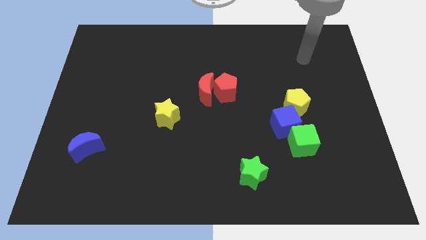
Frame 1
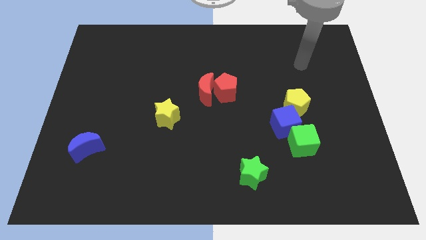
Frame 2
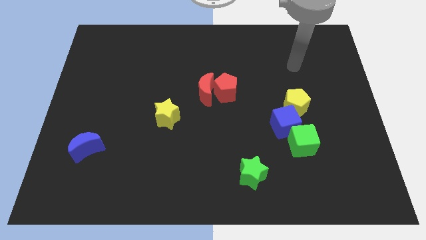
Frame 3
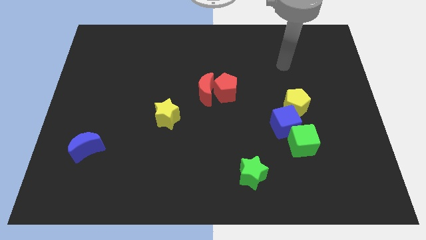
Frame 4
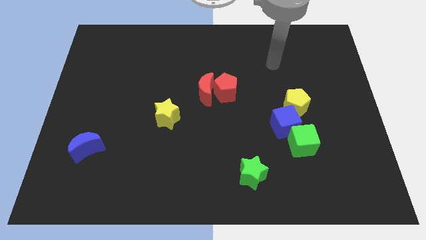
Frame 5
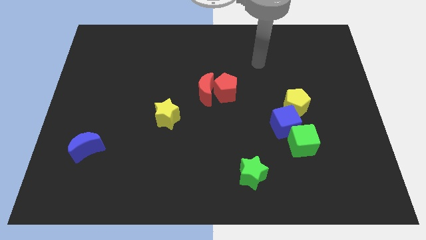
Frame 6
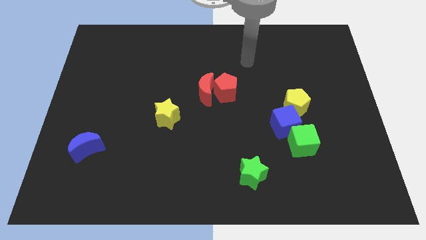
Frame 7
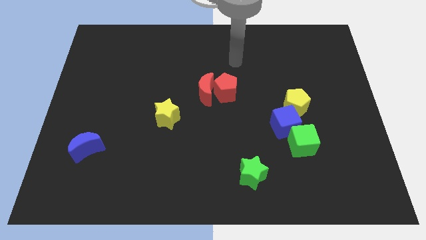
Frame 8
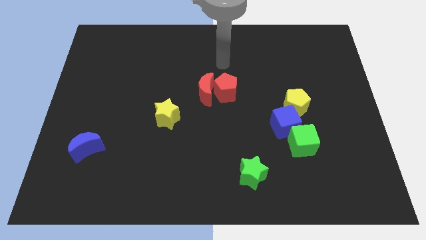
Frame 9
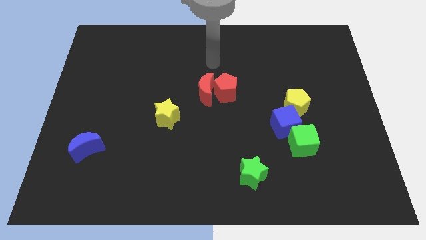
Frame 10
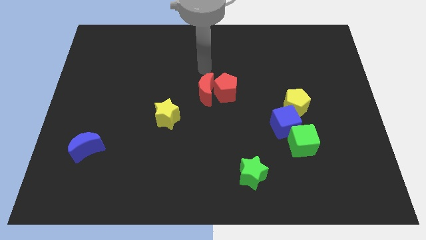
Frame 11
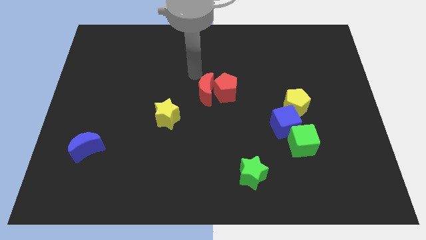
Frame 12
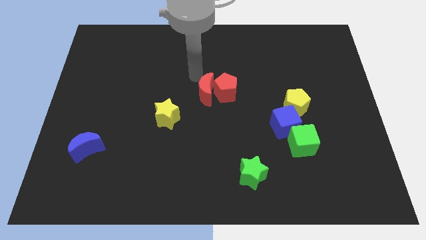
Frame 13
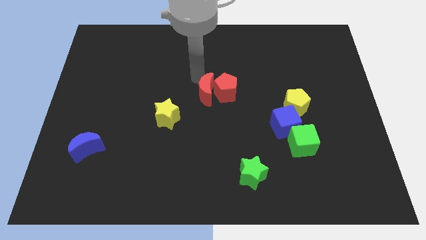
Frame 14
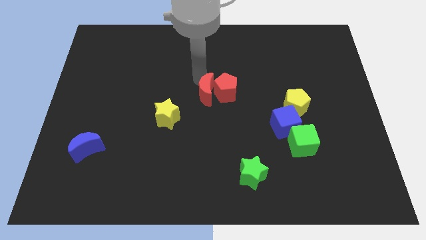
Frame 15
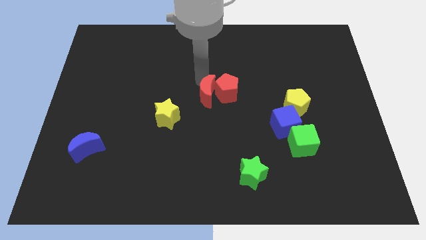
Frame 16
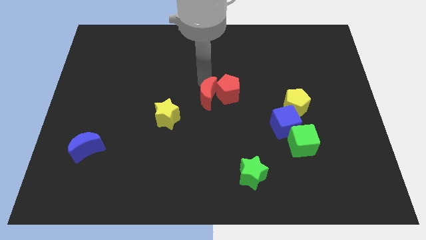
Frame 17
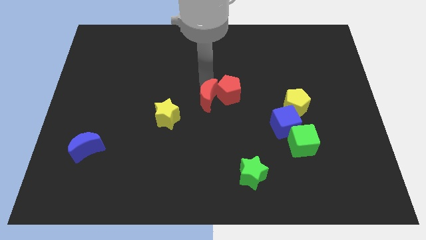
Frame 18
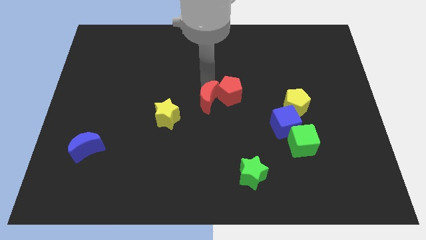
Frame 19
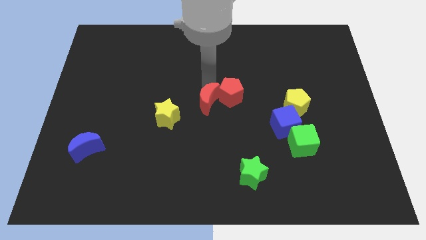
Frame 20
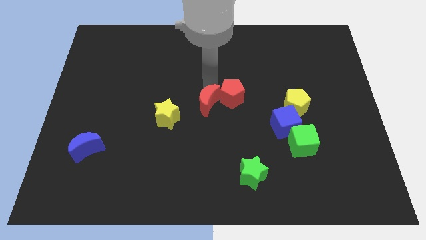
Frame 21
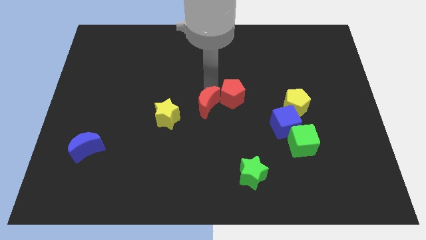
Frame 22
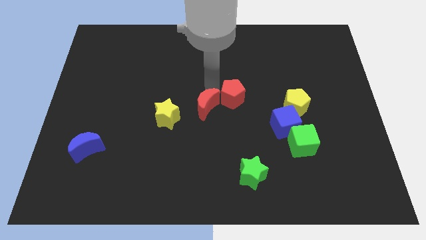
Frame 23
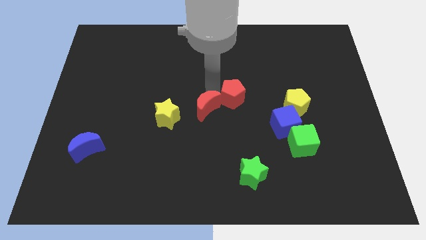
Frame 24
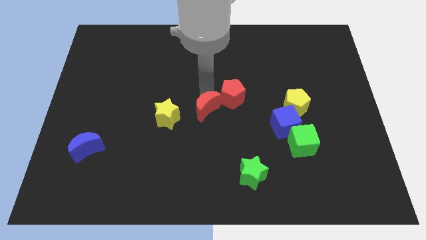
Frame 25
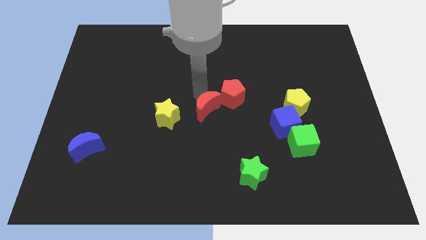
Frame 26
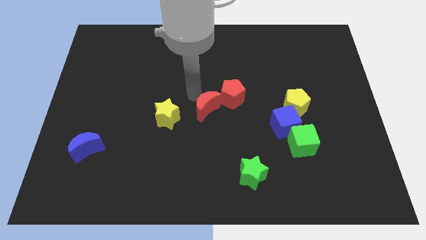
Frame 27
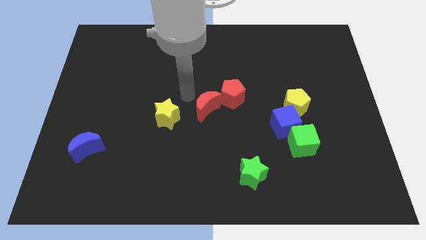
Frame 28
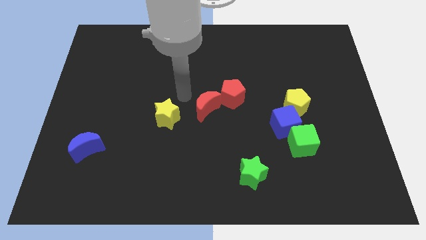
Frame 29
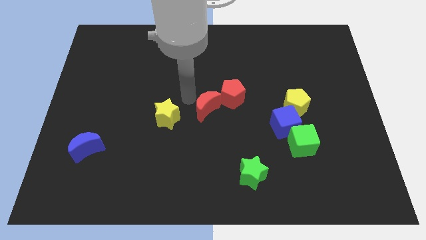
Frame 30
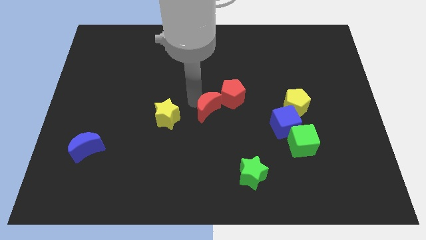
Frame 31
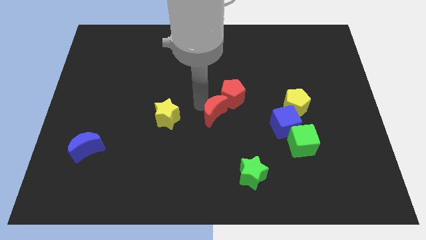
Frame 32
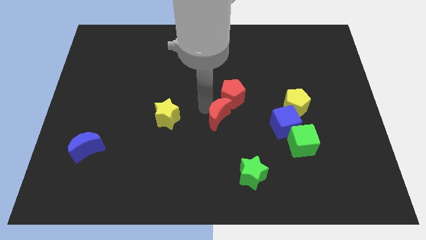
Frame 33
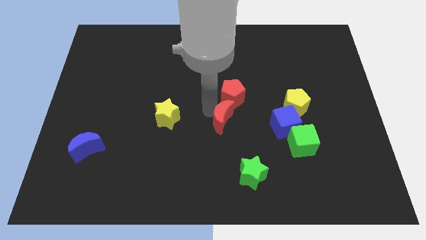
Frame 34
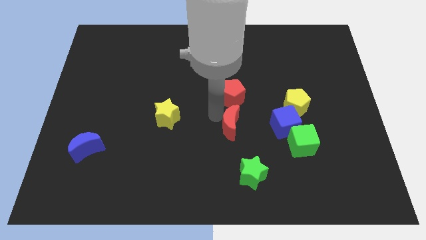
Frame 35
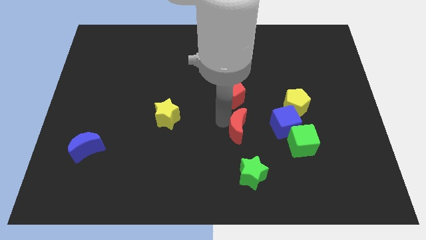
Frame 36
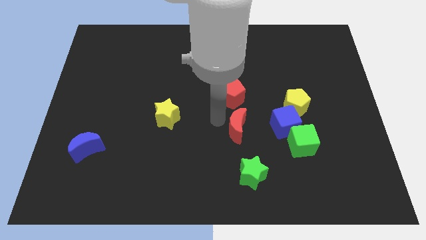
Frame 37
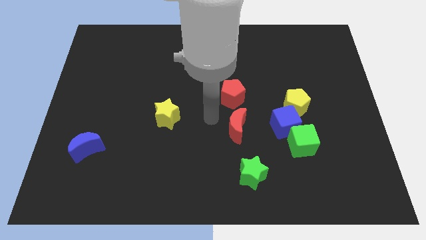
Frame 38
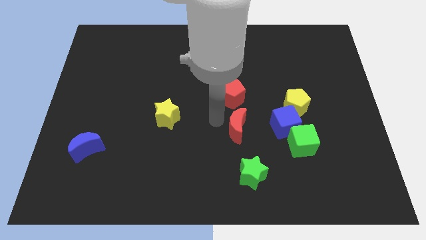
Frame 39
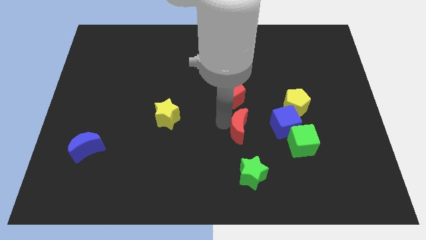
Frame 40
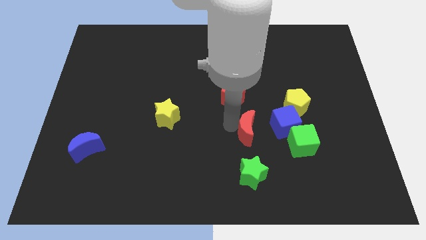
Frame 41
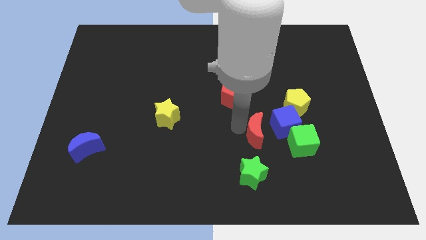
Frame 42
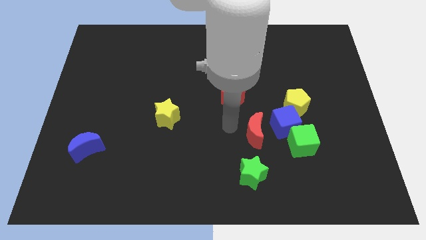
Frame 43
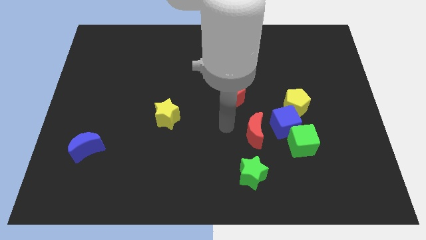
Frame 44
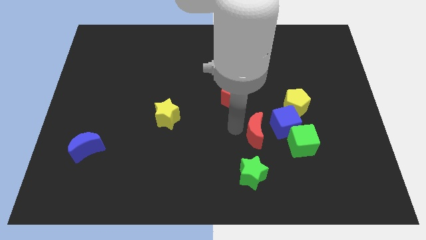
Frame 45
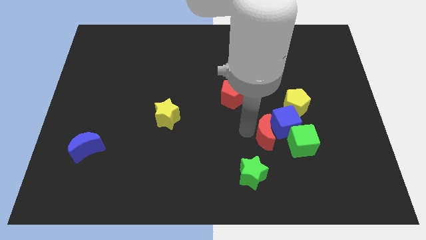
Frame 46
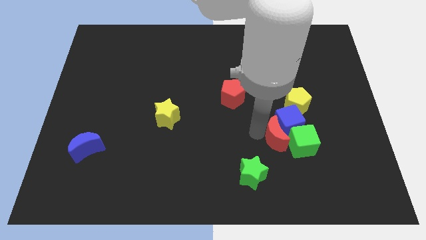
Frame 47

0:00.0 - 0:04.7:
put the red moon to the green cube

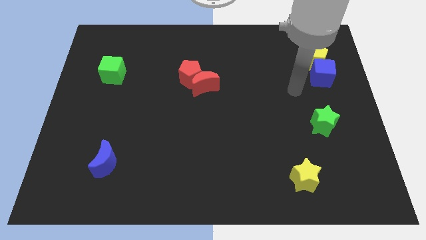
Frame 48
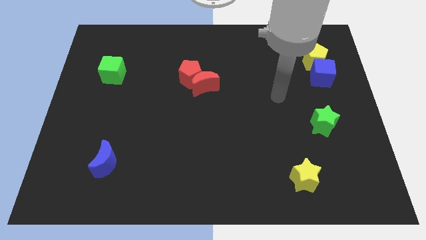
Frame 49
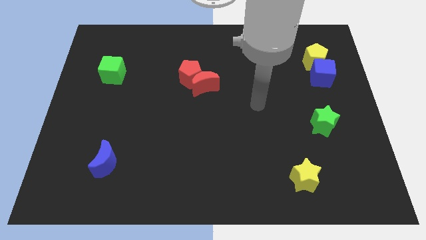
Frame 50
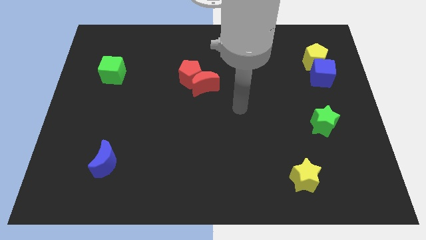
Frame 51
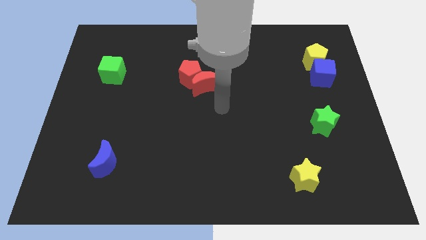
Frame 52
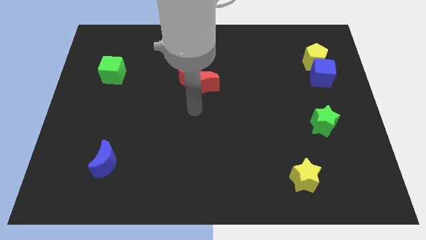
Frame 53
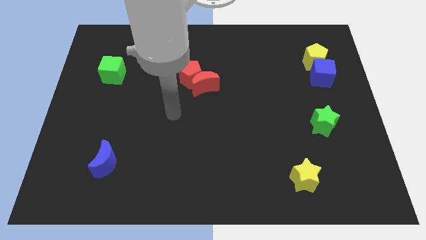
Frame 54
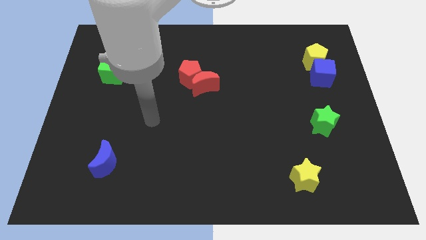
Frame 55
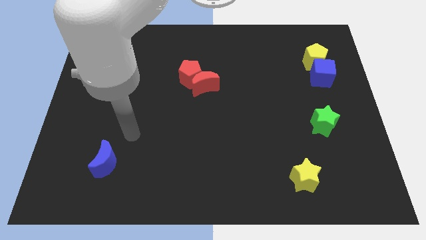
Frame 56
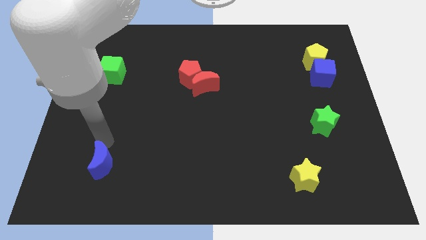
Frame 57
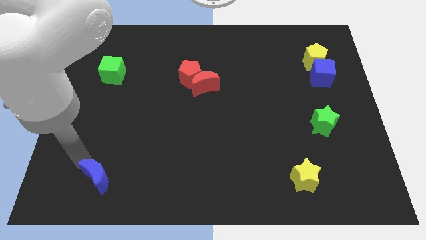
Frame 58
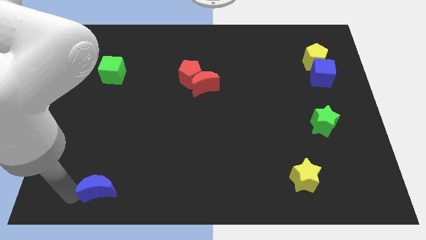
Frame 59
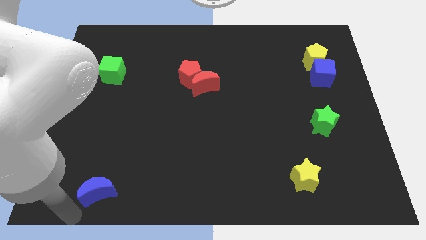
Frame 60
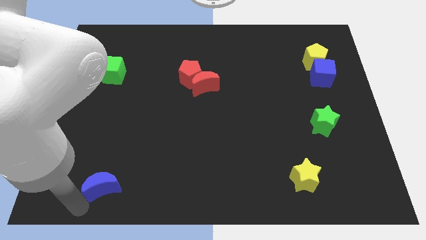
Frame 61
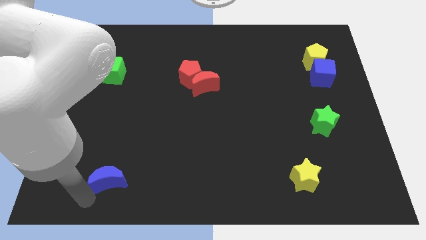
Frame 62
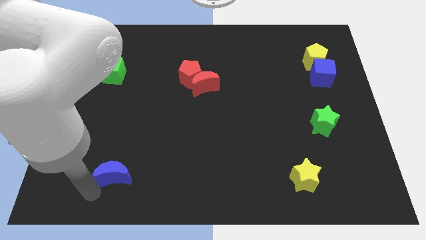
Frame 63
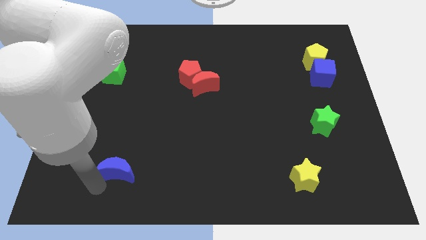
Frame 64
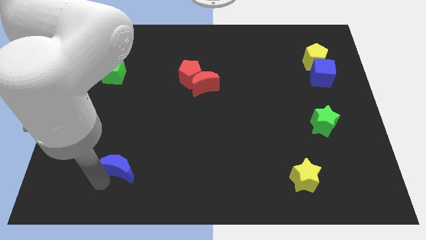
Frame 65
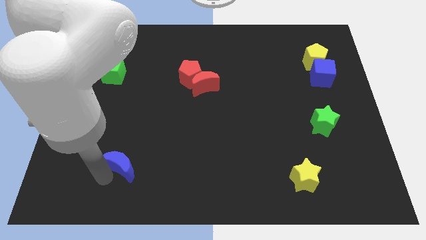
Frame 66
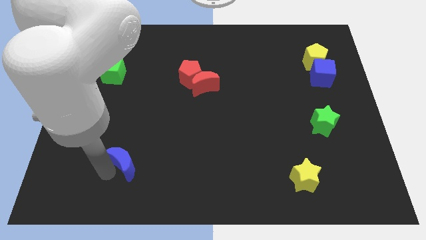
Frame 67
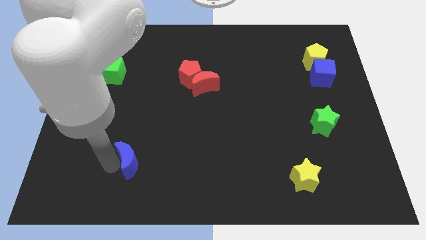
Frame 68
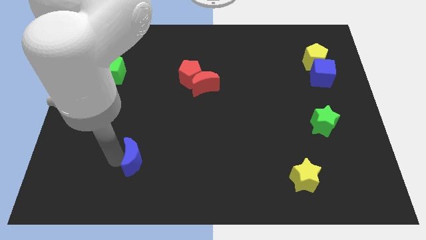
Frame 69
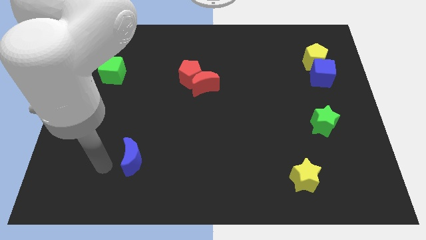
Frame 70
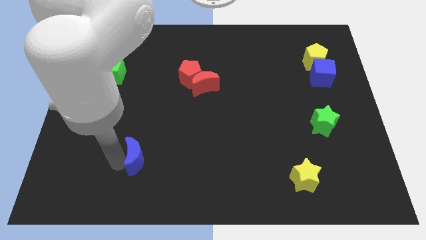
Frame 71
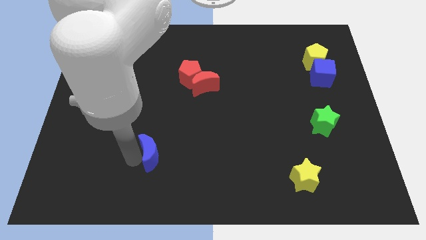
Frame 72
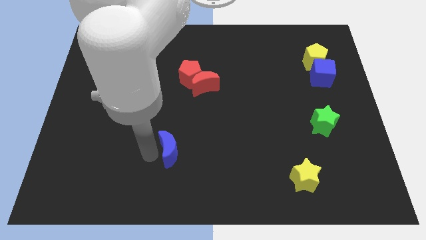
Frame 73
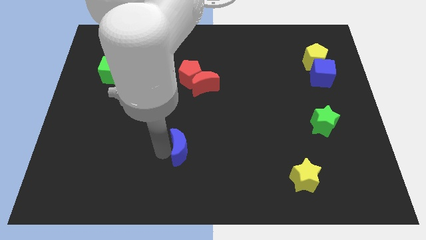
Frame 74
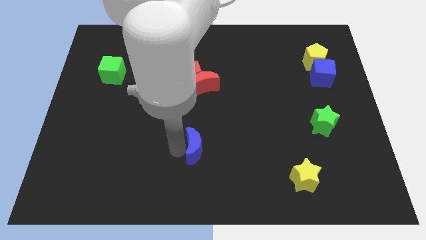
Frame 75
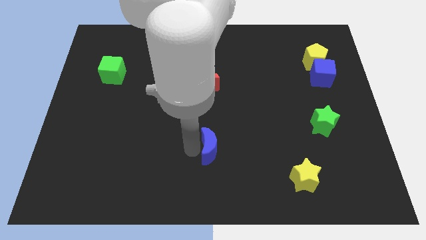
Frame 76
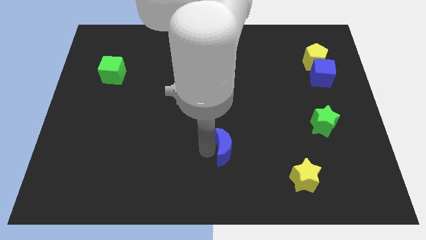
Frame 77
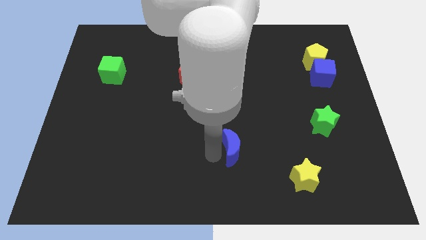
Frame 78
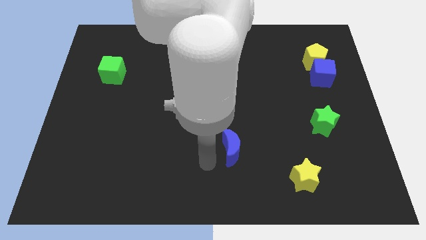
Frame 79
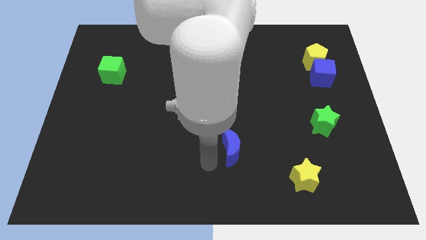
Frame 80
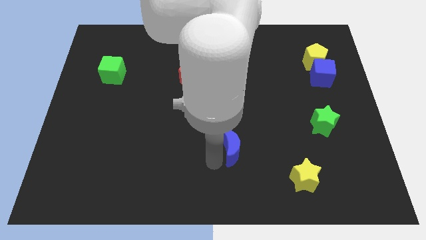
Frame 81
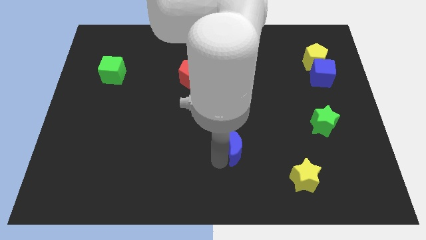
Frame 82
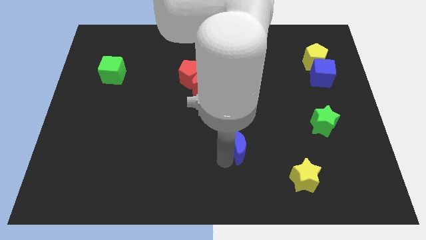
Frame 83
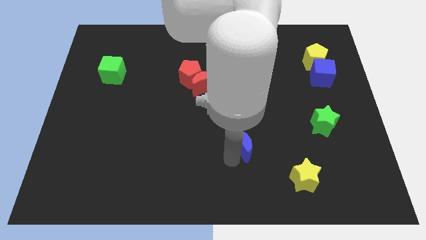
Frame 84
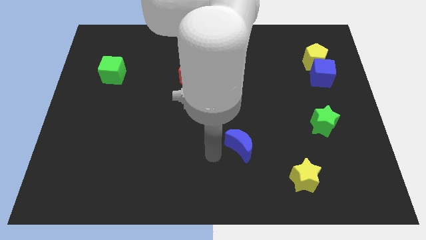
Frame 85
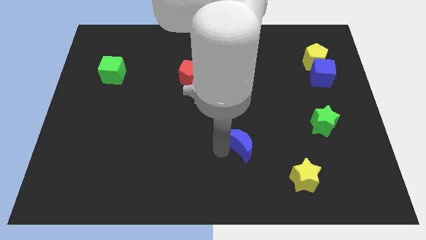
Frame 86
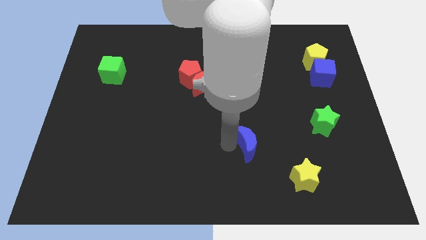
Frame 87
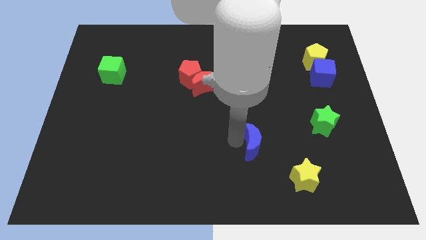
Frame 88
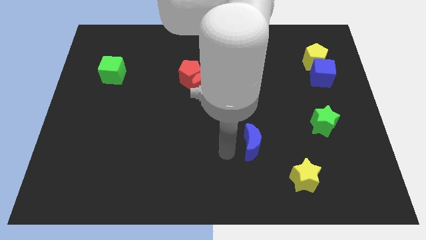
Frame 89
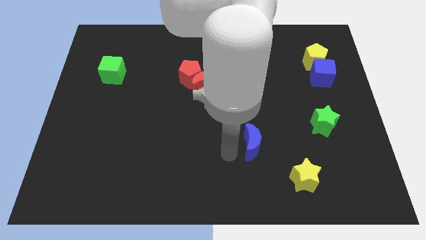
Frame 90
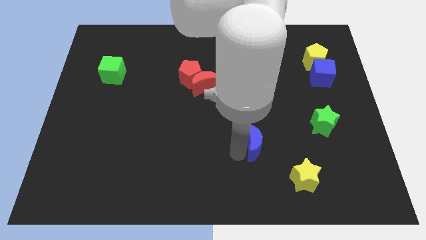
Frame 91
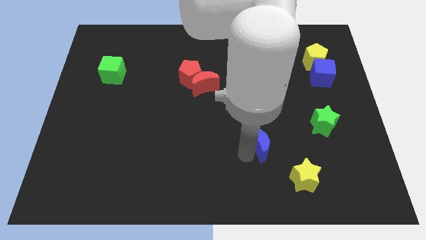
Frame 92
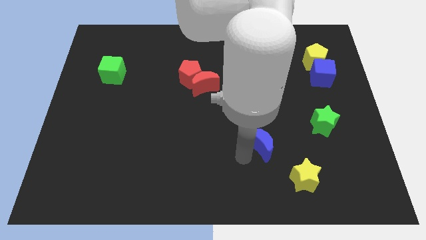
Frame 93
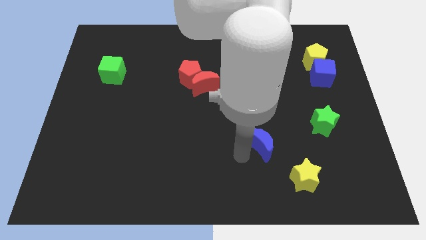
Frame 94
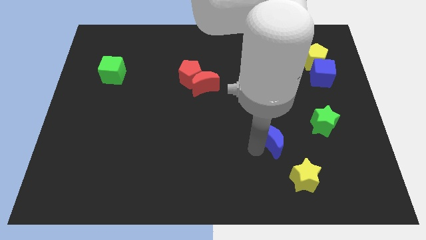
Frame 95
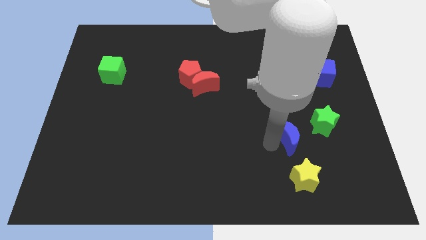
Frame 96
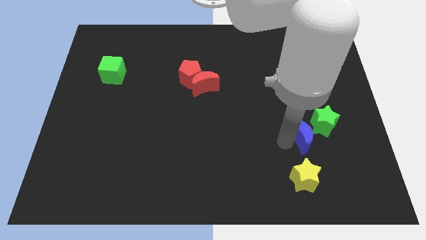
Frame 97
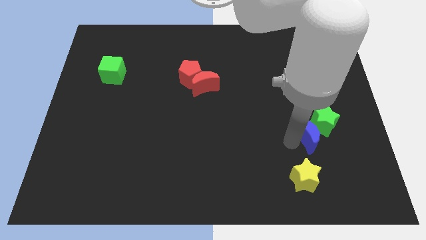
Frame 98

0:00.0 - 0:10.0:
move the blue moon towards the green star
